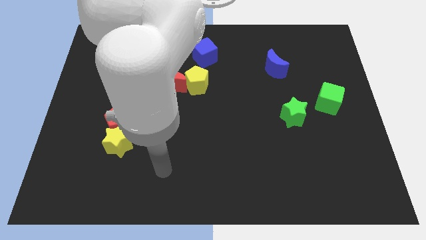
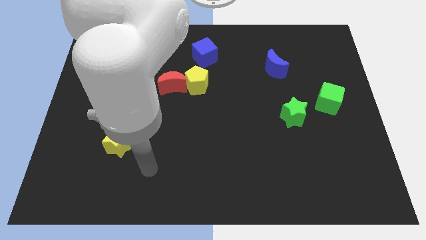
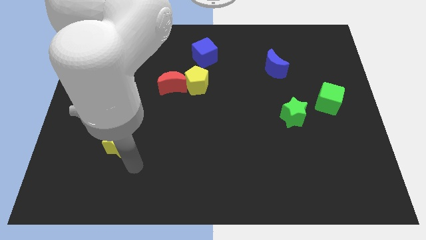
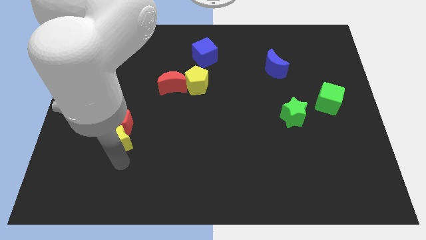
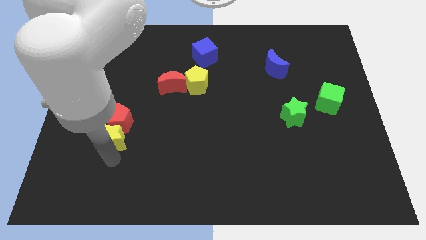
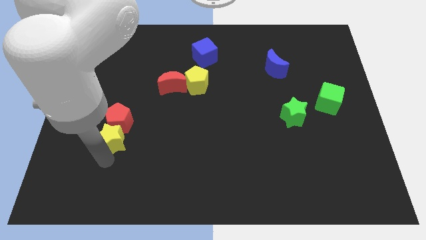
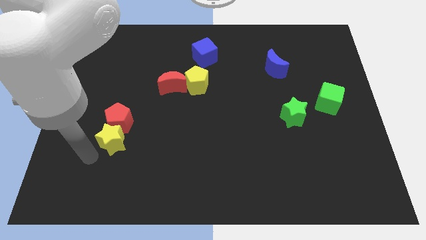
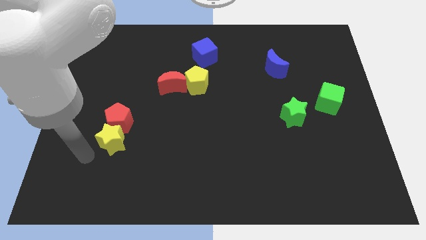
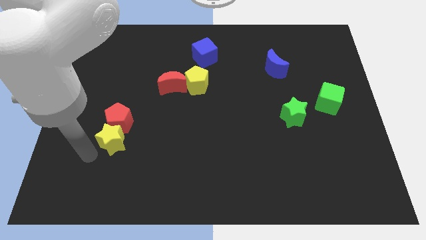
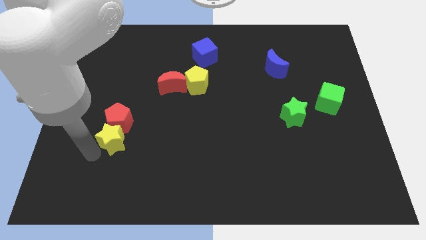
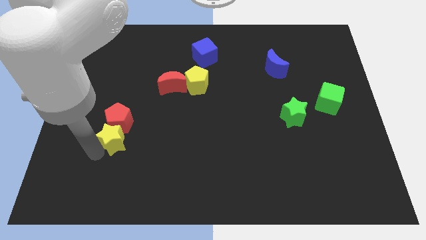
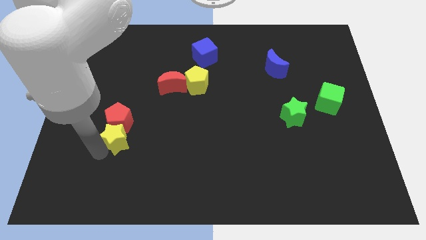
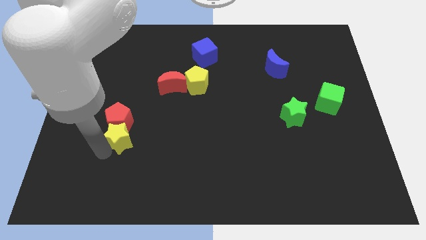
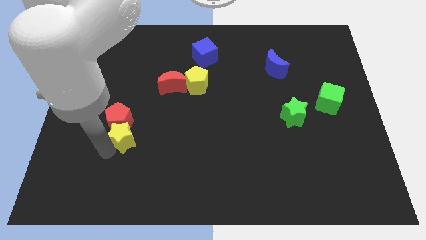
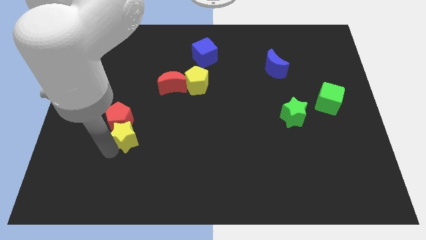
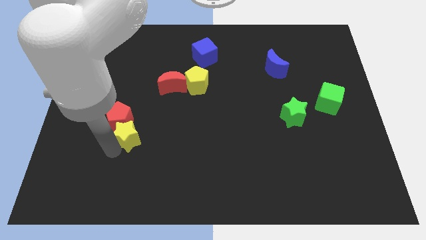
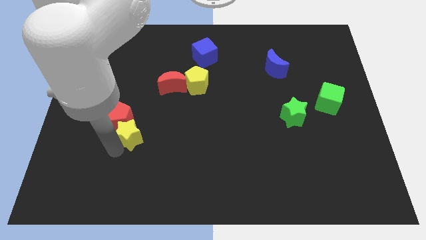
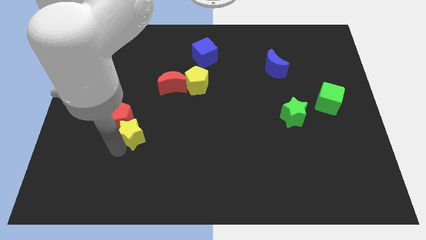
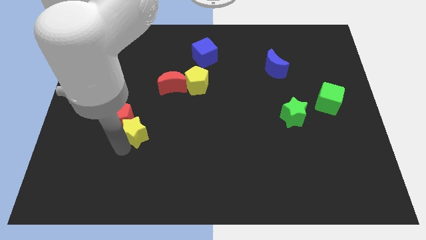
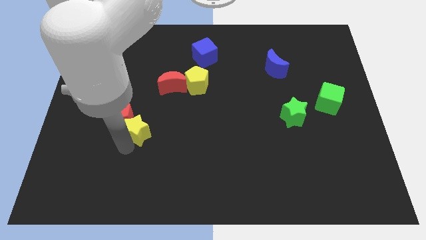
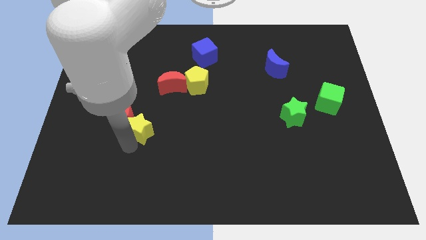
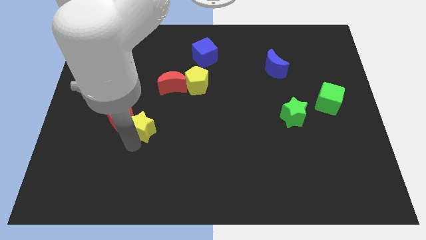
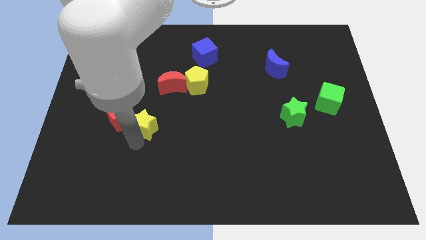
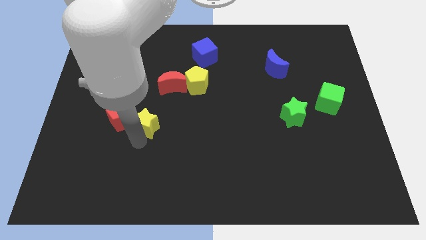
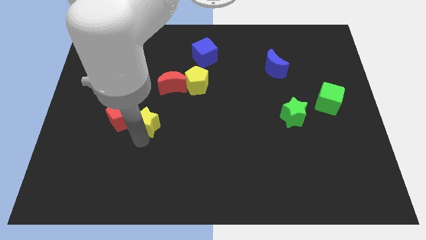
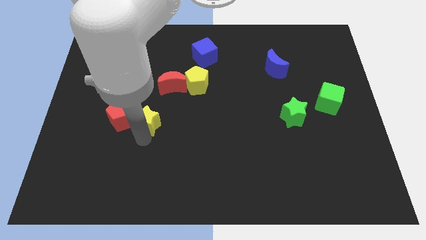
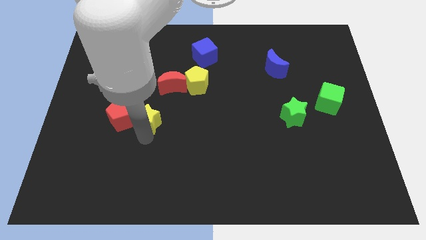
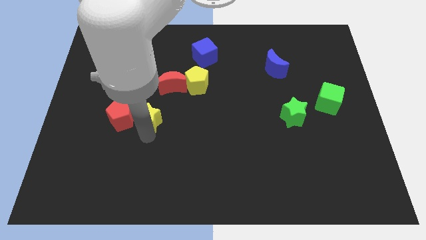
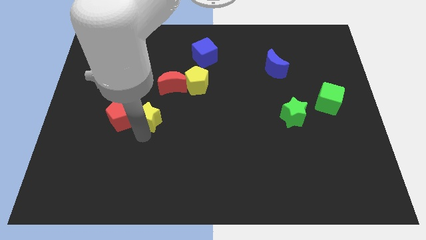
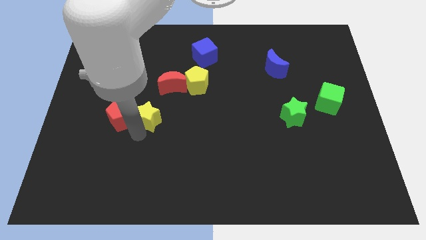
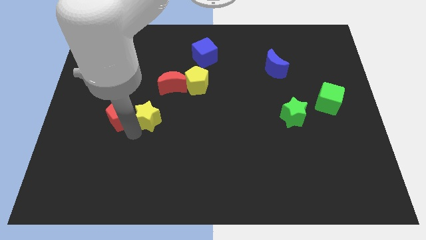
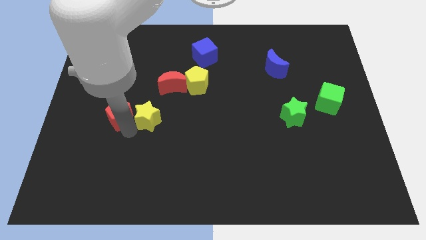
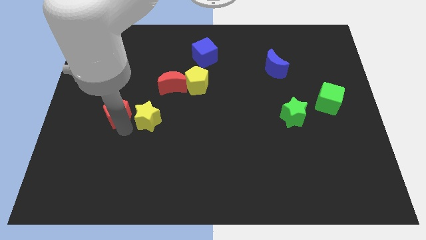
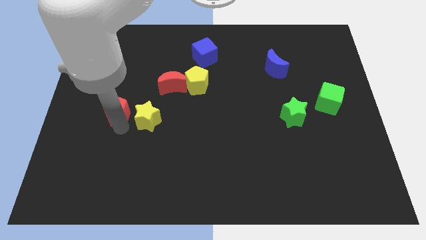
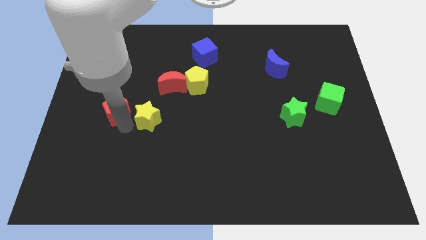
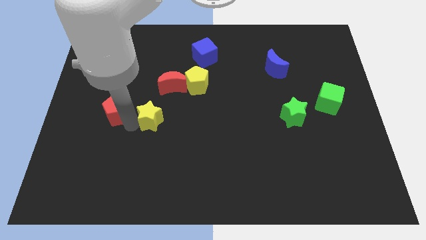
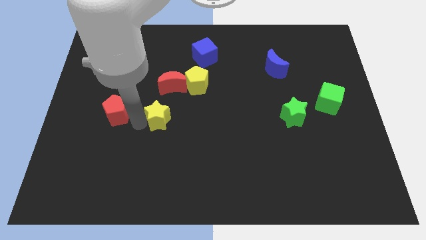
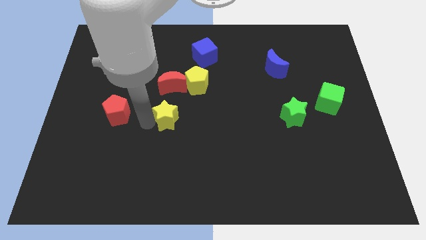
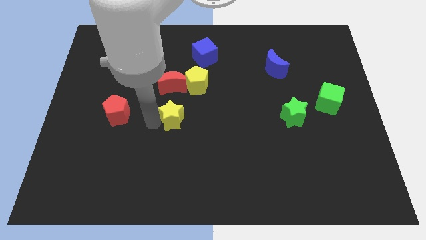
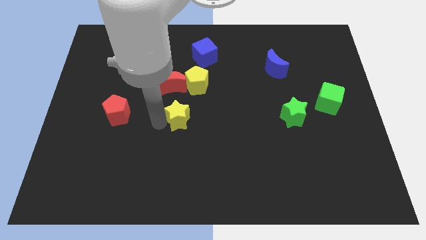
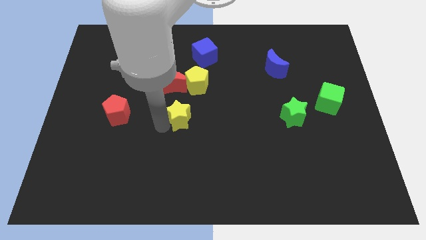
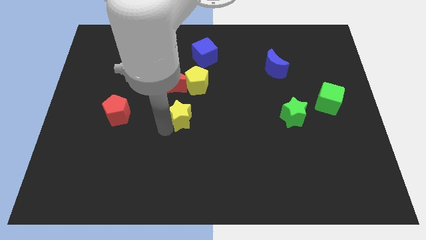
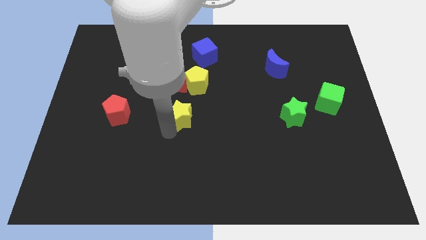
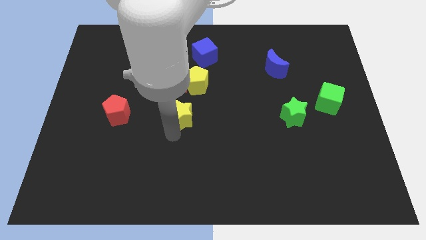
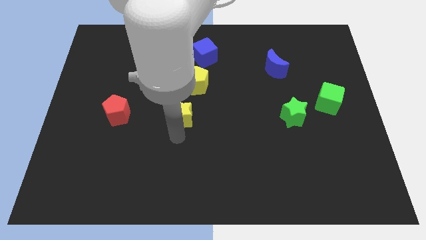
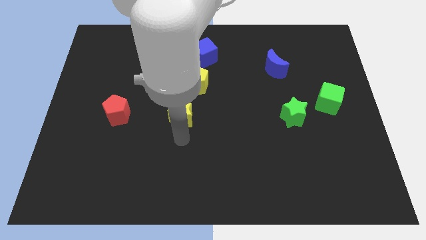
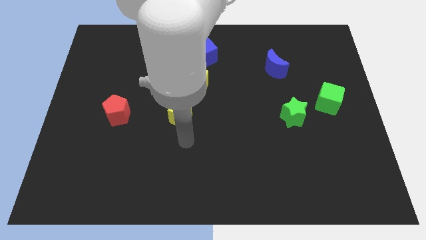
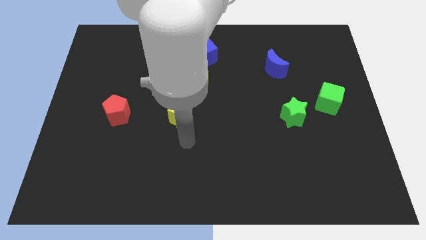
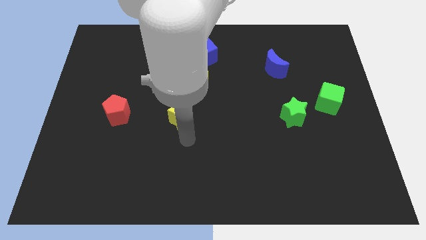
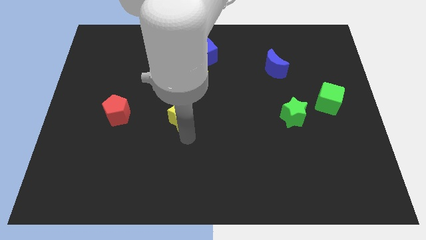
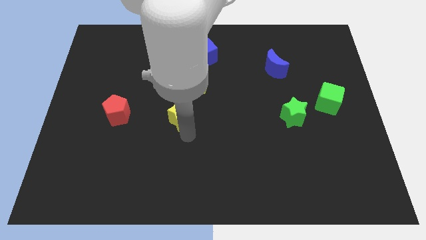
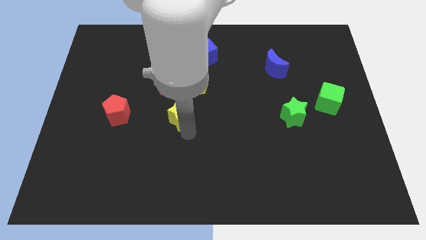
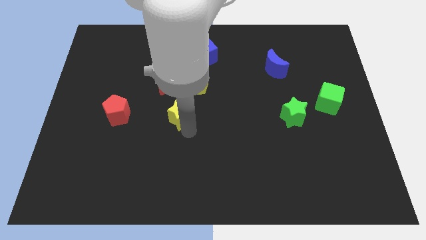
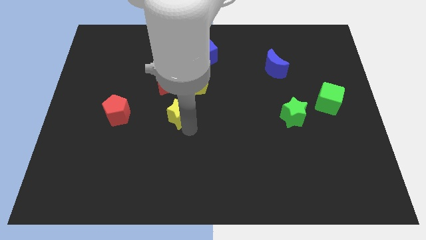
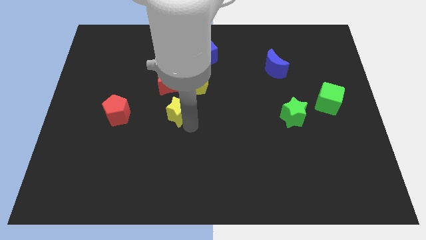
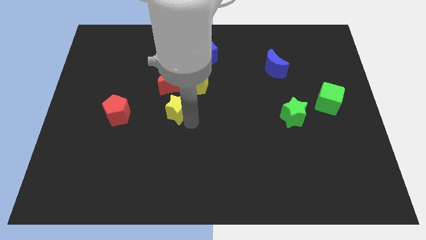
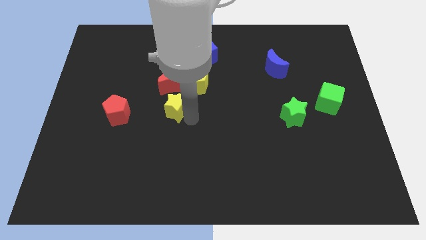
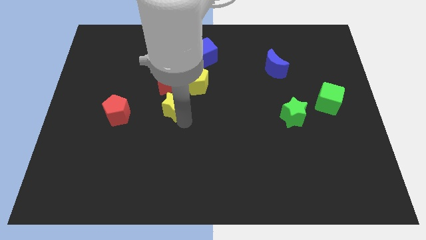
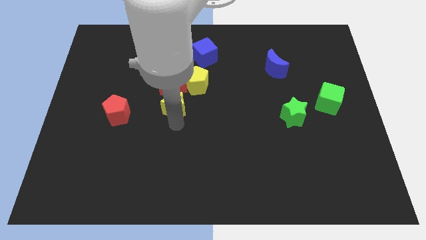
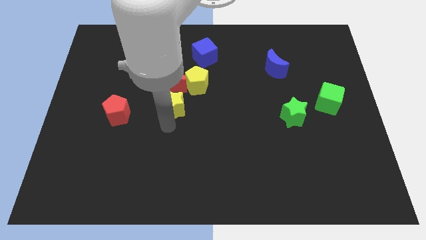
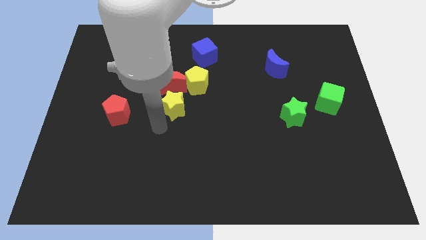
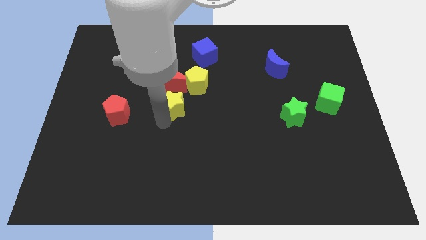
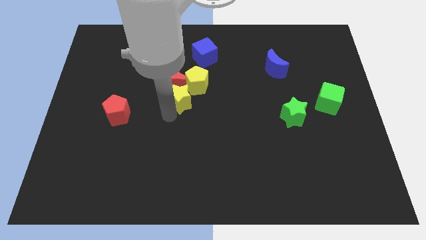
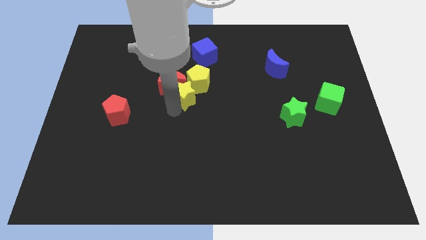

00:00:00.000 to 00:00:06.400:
put the yellow star close to the yellow pentagon

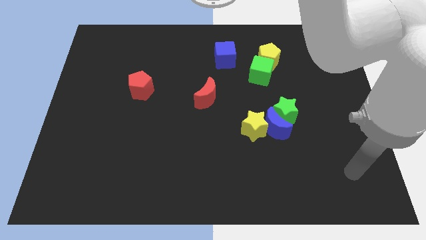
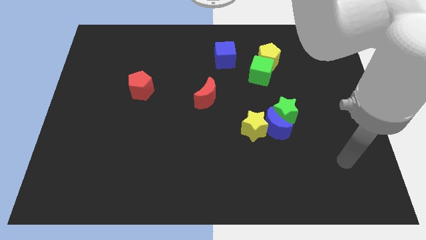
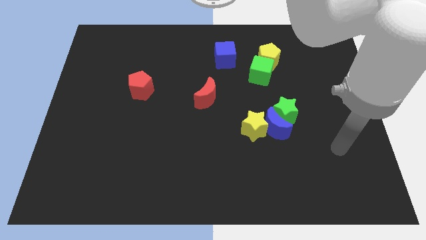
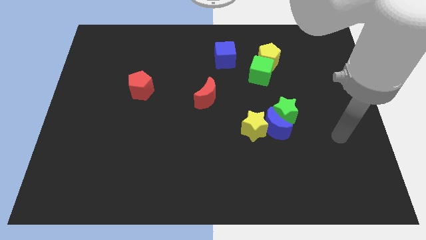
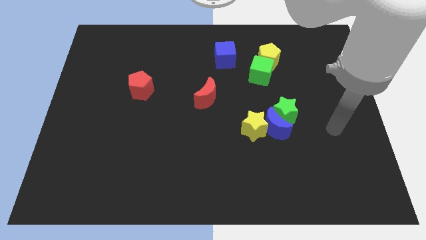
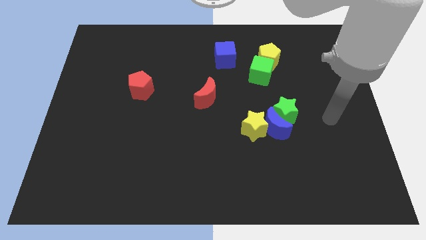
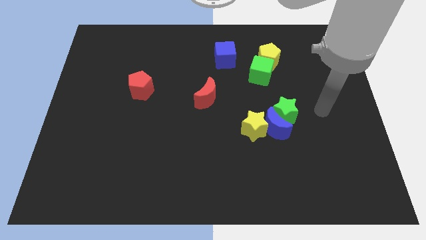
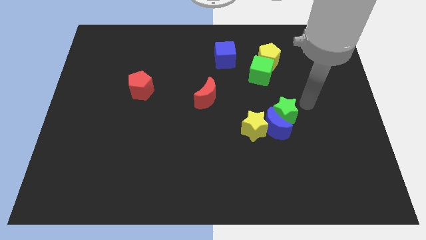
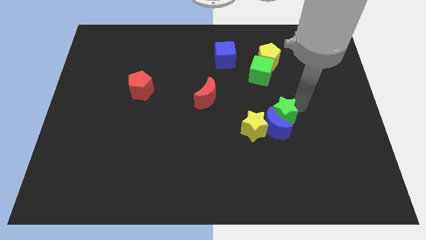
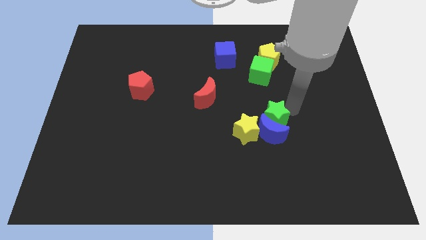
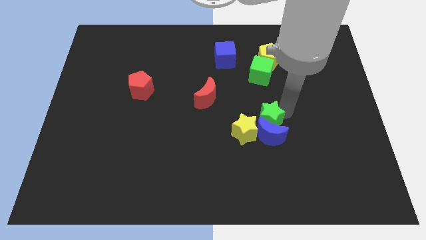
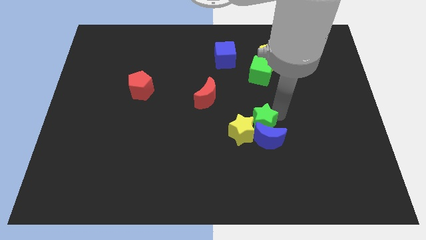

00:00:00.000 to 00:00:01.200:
move the green star to the yellow star
